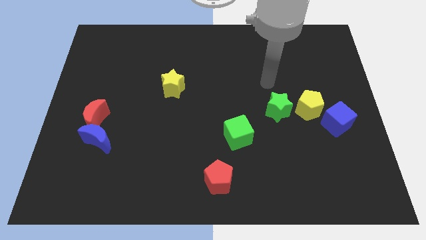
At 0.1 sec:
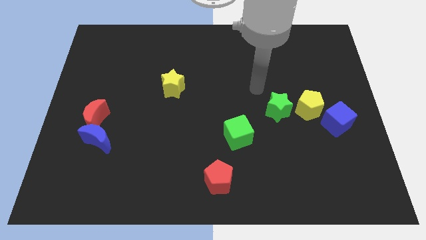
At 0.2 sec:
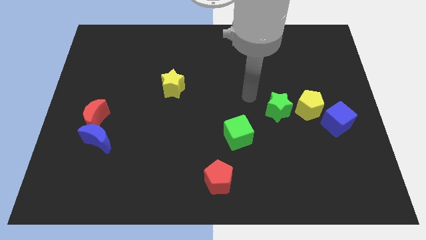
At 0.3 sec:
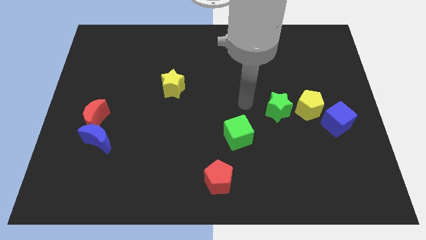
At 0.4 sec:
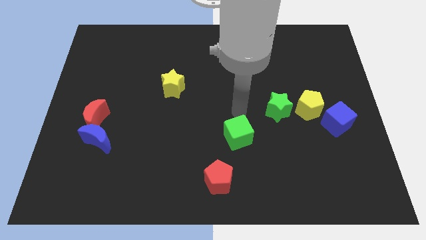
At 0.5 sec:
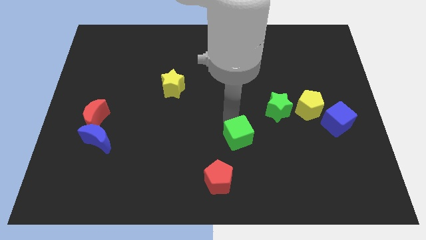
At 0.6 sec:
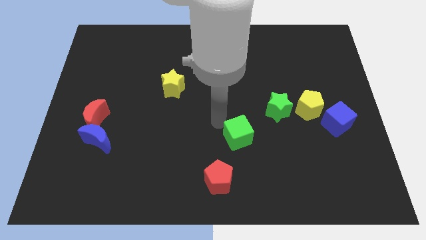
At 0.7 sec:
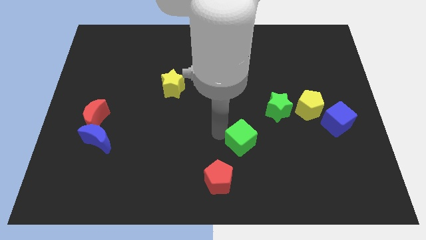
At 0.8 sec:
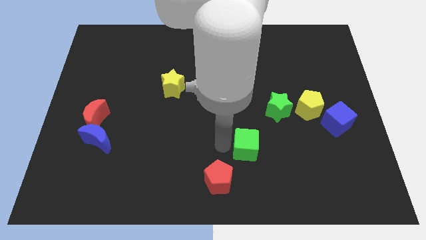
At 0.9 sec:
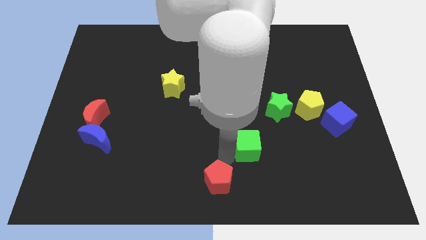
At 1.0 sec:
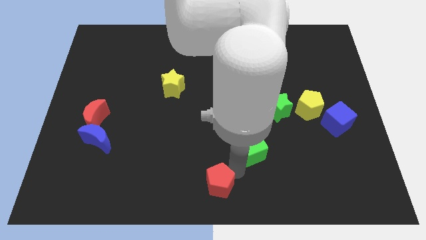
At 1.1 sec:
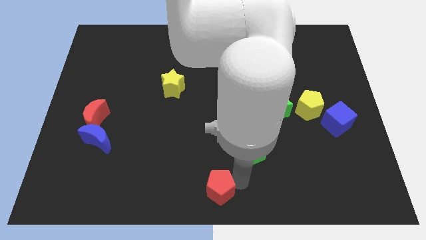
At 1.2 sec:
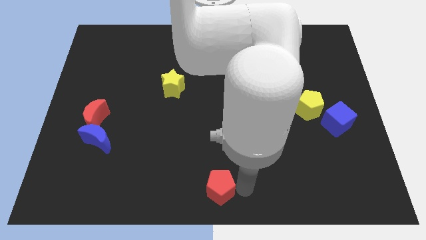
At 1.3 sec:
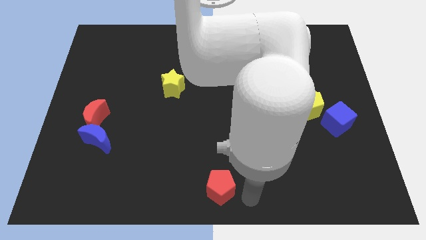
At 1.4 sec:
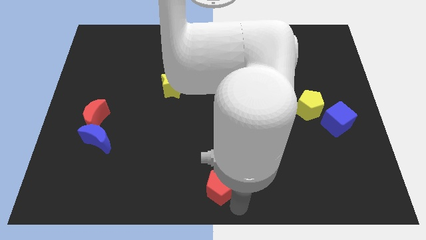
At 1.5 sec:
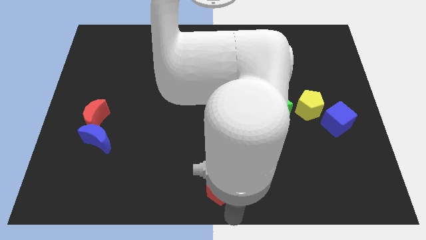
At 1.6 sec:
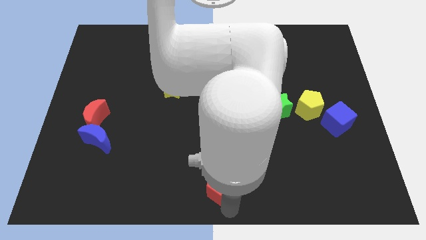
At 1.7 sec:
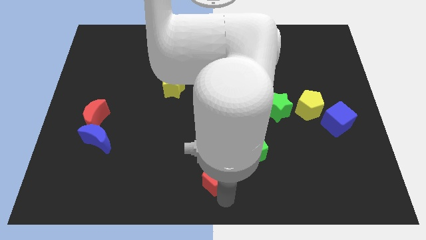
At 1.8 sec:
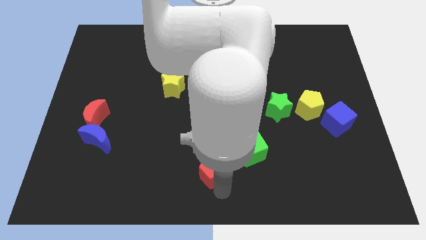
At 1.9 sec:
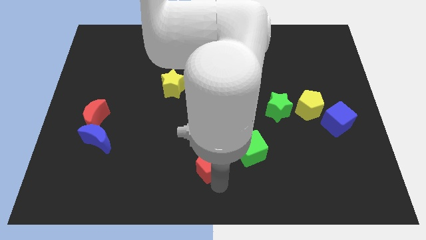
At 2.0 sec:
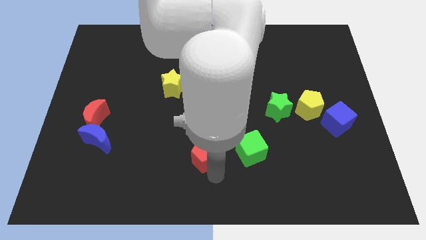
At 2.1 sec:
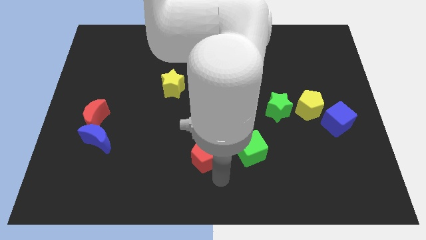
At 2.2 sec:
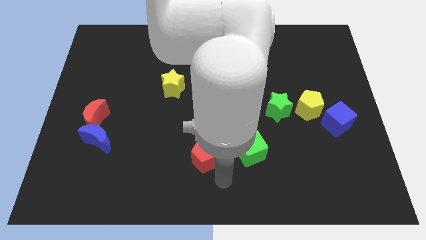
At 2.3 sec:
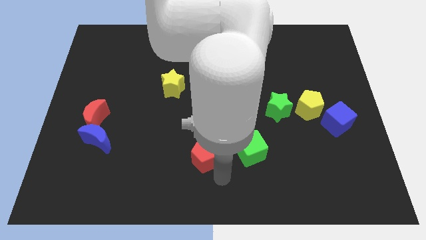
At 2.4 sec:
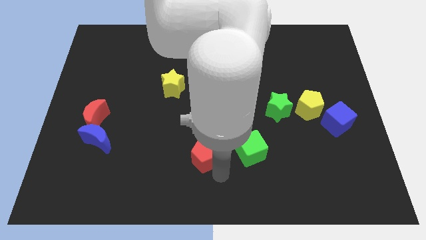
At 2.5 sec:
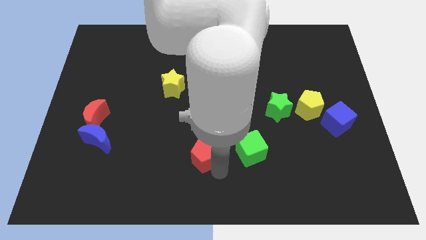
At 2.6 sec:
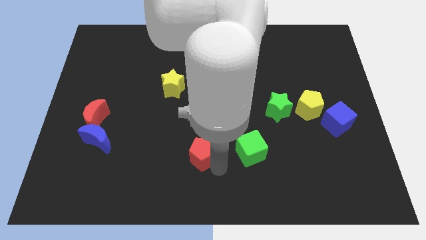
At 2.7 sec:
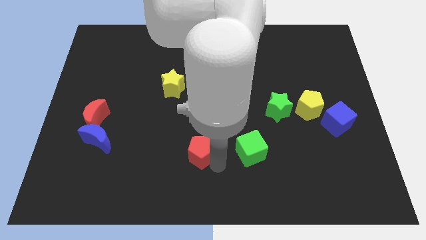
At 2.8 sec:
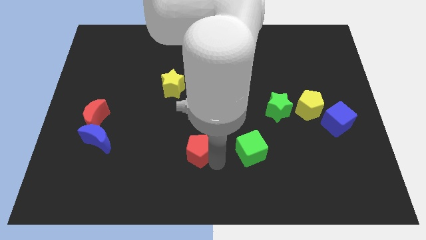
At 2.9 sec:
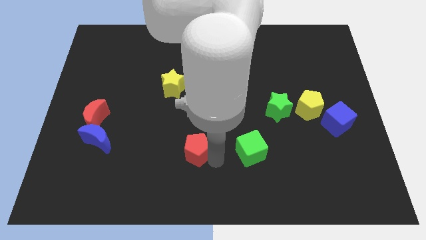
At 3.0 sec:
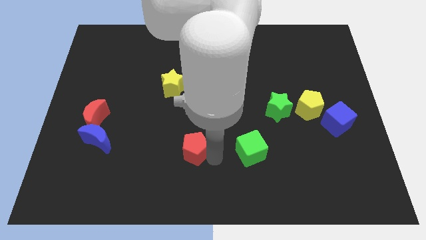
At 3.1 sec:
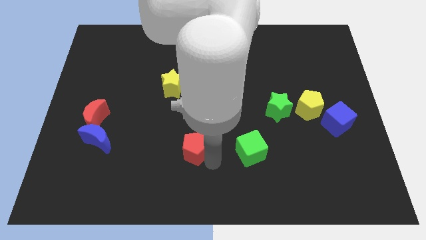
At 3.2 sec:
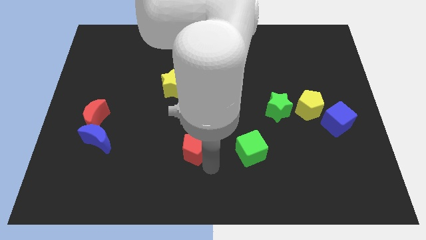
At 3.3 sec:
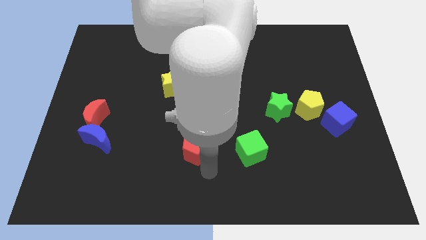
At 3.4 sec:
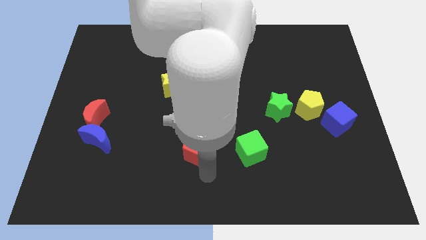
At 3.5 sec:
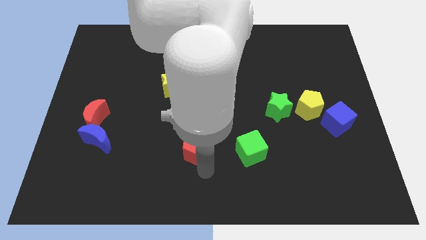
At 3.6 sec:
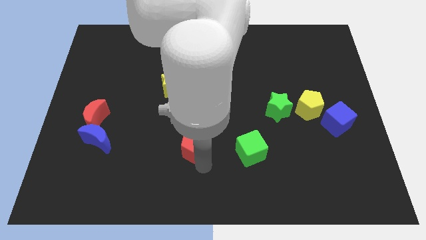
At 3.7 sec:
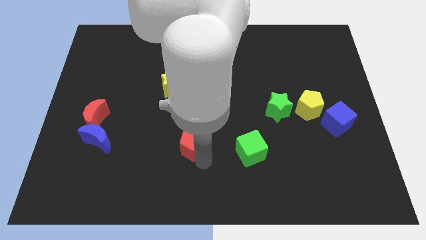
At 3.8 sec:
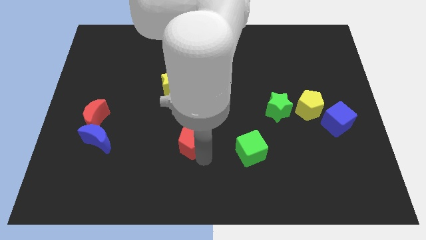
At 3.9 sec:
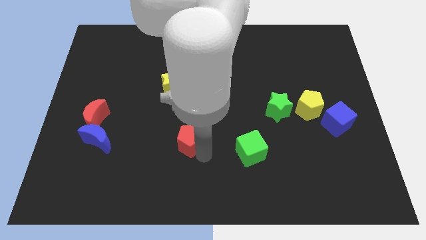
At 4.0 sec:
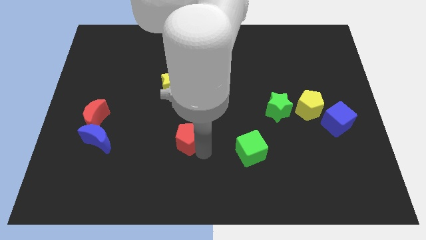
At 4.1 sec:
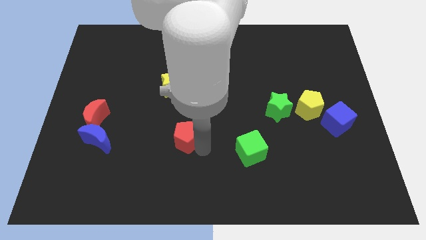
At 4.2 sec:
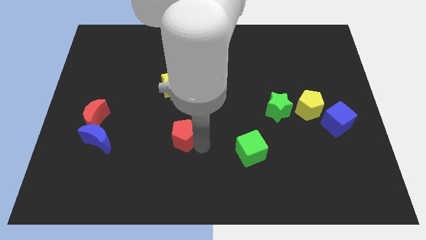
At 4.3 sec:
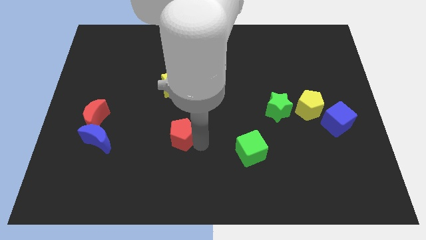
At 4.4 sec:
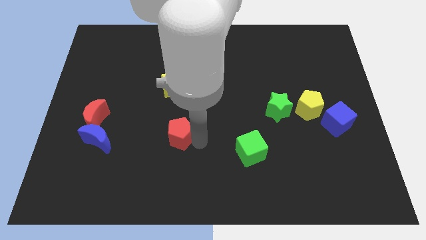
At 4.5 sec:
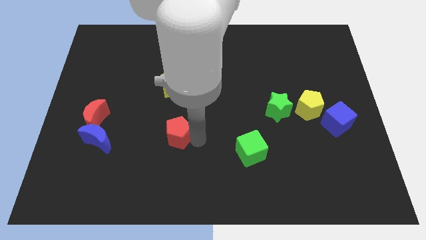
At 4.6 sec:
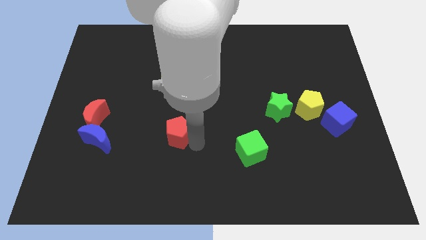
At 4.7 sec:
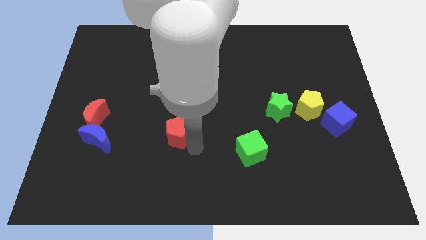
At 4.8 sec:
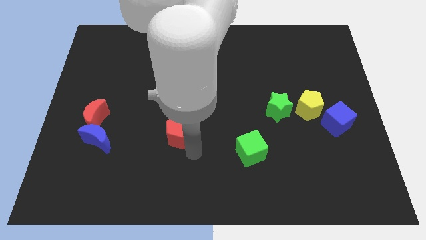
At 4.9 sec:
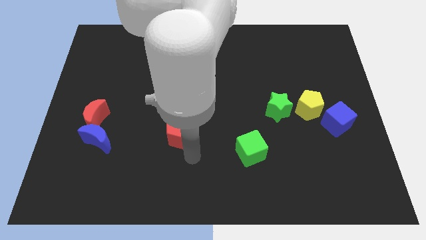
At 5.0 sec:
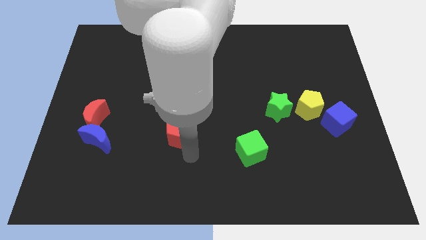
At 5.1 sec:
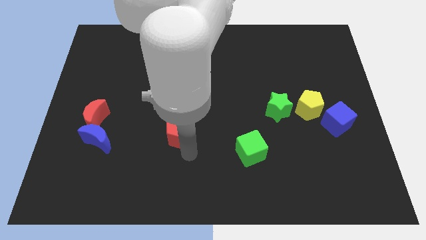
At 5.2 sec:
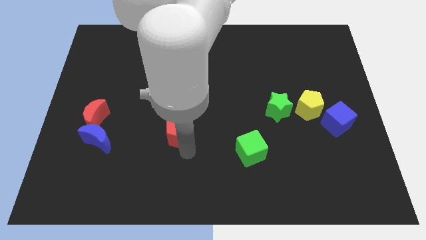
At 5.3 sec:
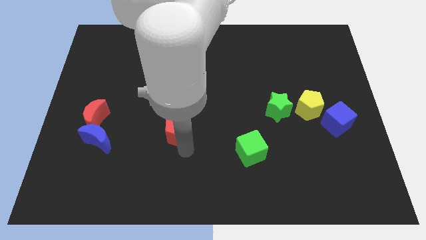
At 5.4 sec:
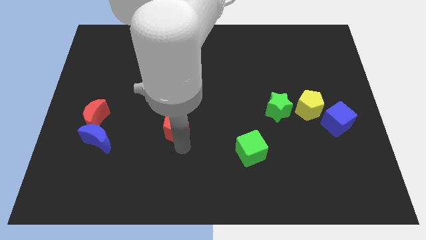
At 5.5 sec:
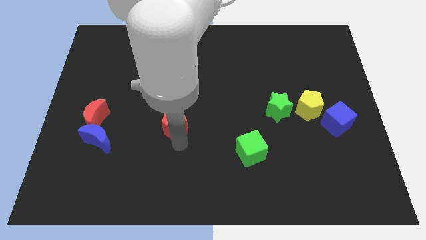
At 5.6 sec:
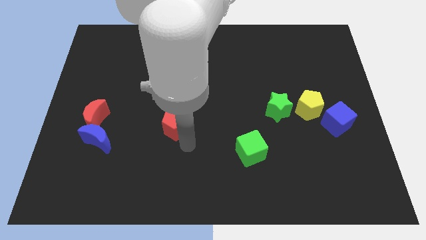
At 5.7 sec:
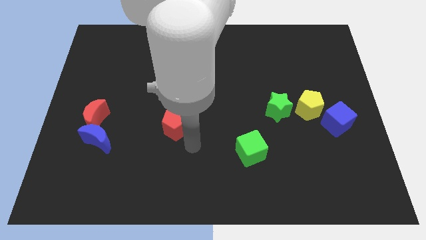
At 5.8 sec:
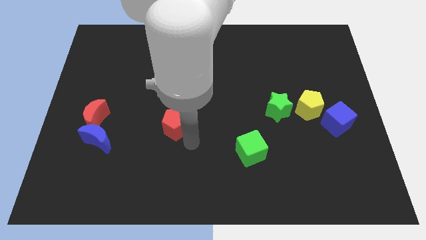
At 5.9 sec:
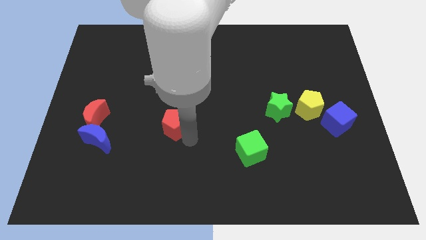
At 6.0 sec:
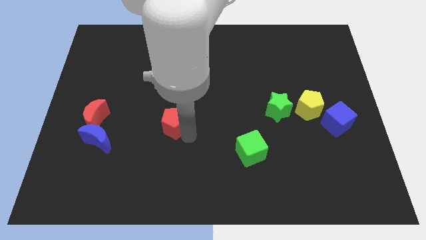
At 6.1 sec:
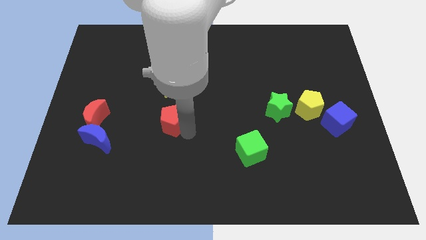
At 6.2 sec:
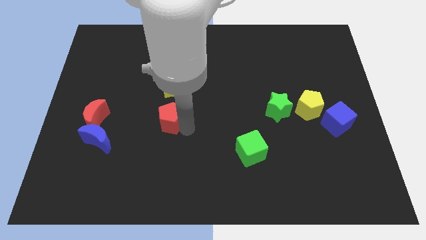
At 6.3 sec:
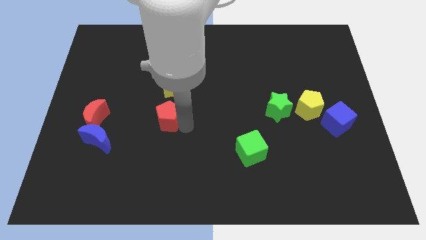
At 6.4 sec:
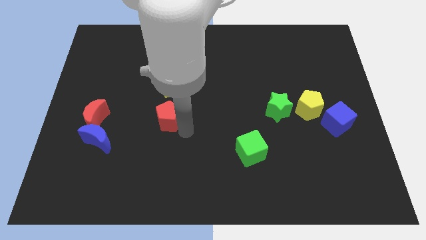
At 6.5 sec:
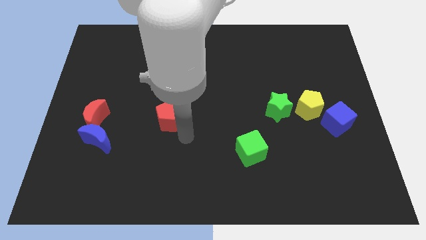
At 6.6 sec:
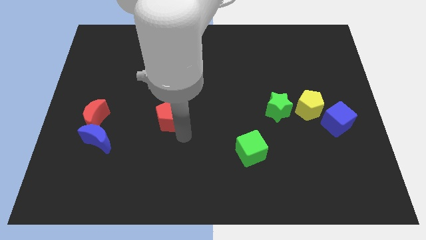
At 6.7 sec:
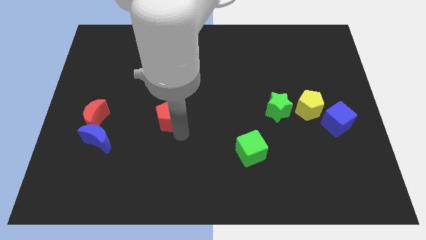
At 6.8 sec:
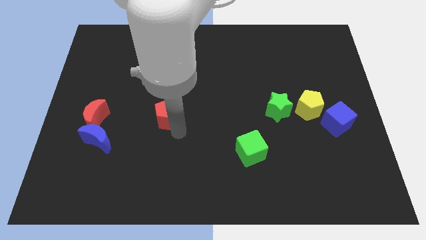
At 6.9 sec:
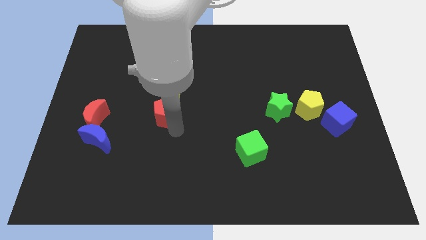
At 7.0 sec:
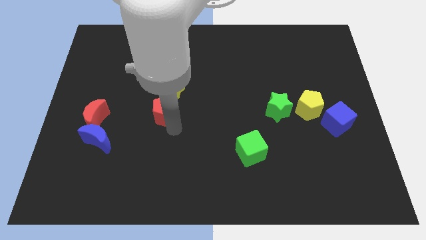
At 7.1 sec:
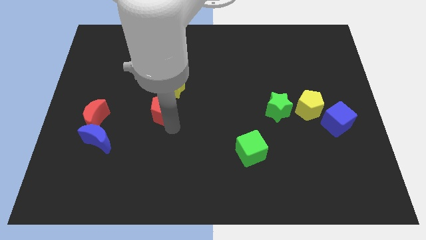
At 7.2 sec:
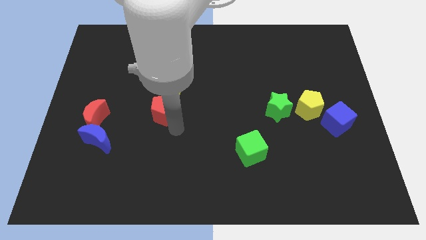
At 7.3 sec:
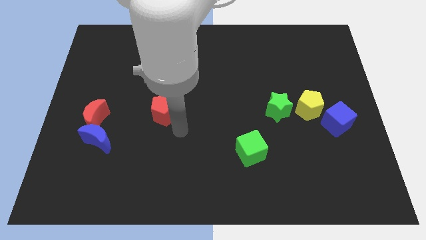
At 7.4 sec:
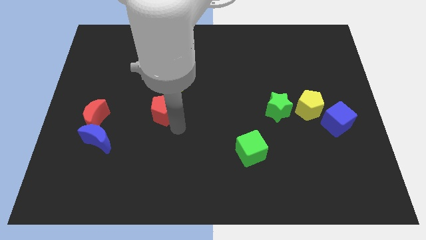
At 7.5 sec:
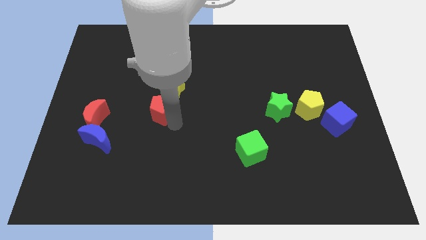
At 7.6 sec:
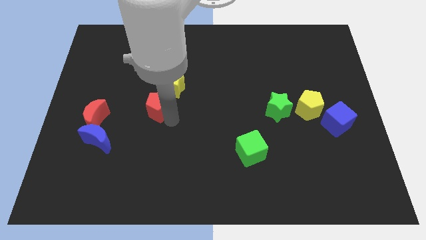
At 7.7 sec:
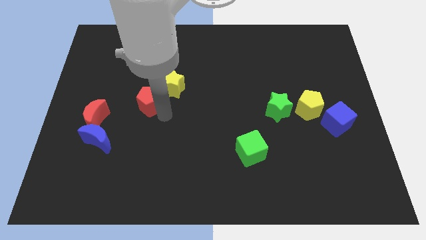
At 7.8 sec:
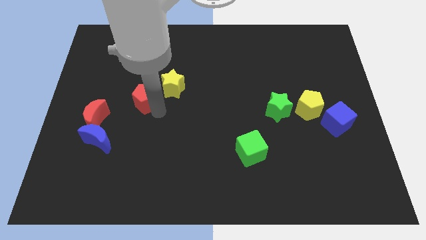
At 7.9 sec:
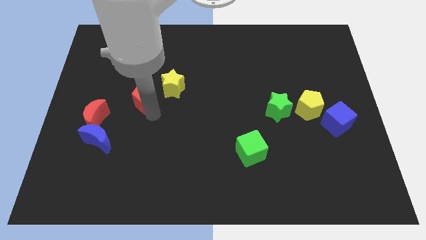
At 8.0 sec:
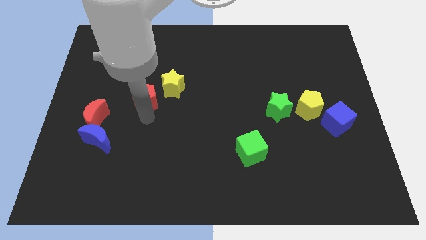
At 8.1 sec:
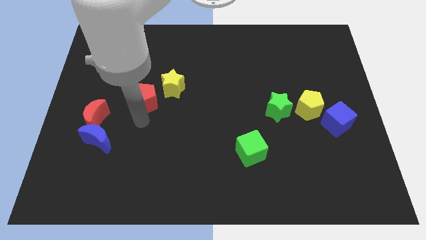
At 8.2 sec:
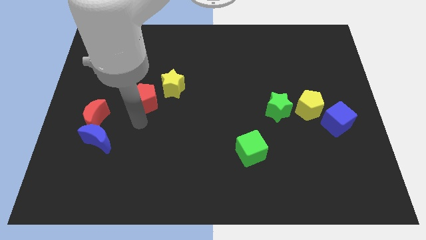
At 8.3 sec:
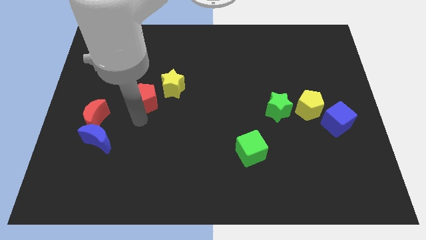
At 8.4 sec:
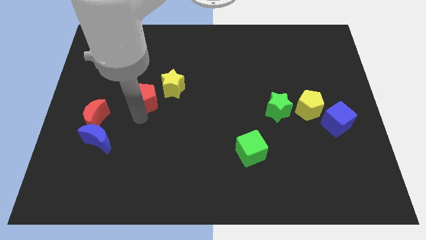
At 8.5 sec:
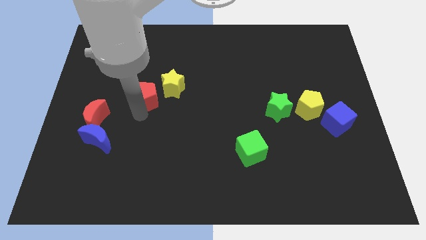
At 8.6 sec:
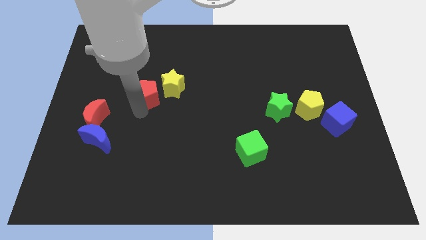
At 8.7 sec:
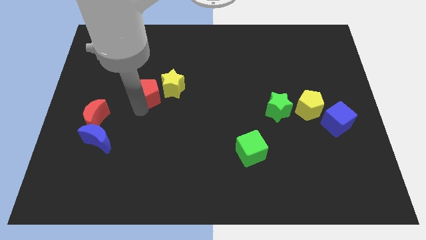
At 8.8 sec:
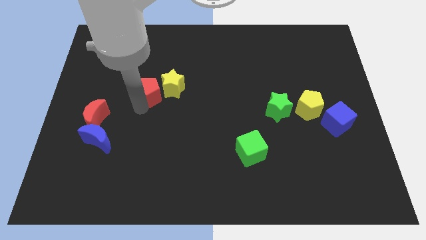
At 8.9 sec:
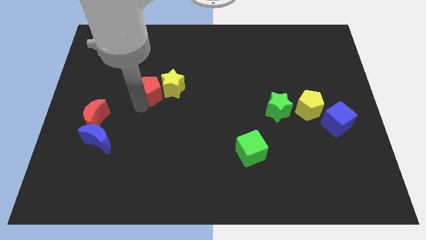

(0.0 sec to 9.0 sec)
push the red pentagon to the top left side of the yellow star
